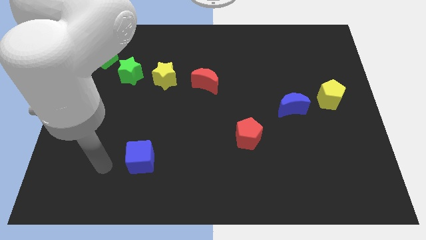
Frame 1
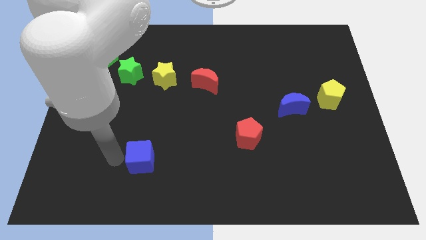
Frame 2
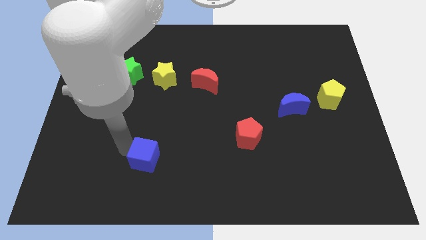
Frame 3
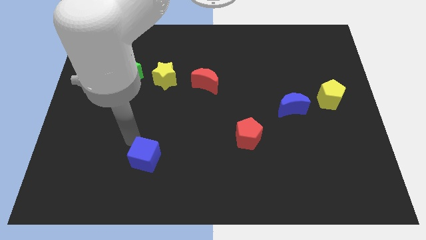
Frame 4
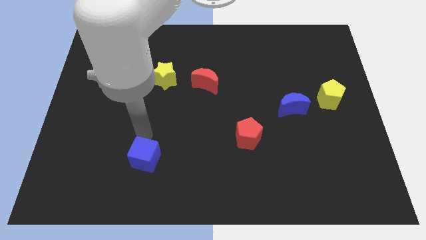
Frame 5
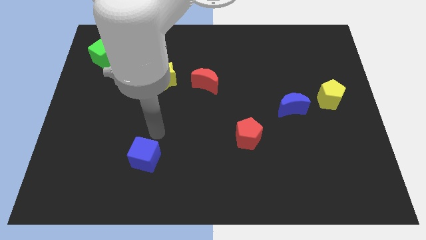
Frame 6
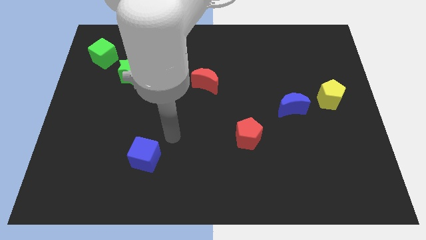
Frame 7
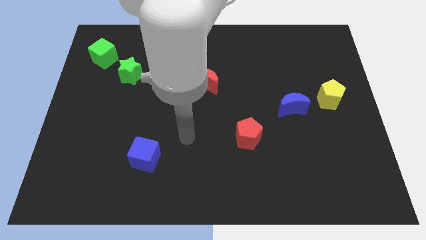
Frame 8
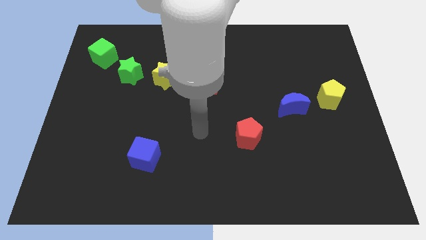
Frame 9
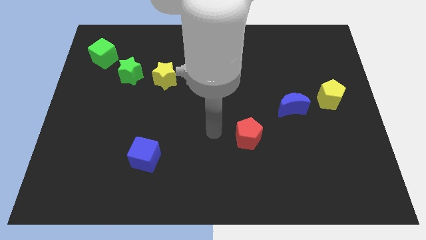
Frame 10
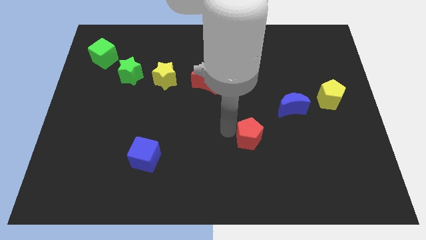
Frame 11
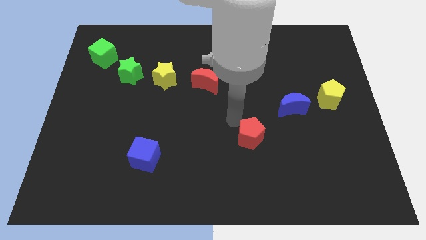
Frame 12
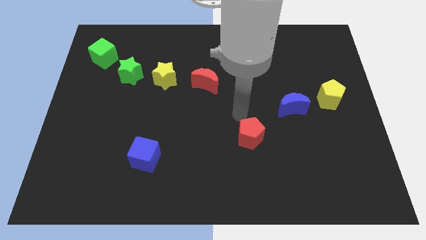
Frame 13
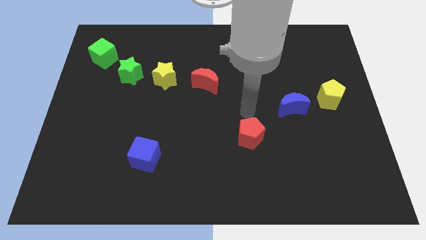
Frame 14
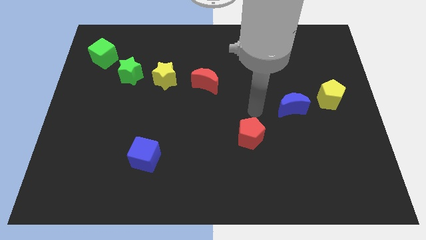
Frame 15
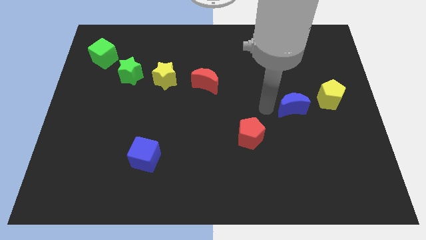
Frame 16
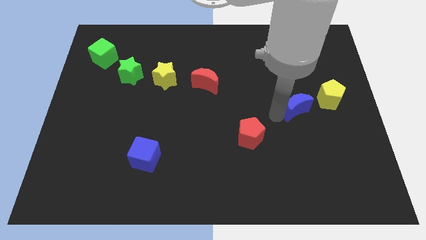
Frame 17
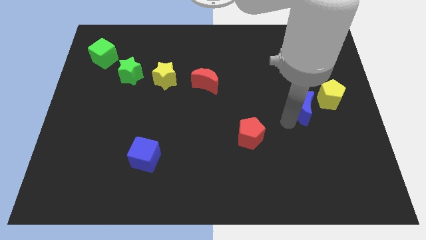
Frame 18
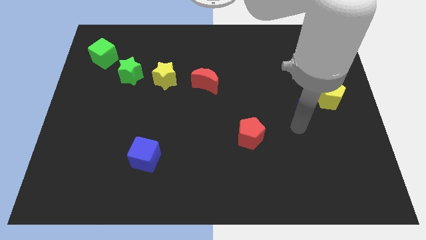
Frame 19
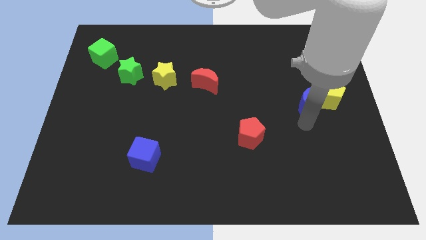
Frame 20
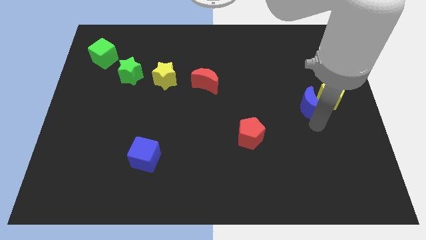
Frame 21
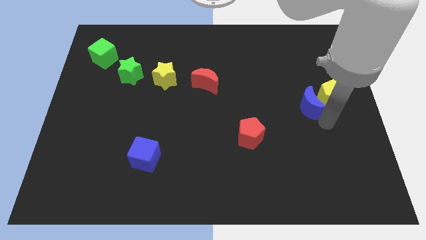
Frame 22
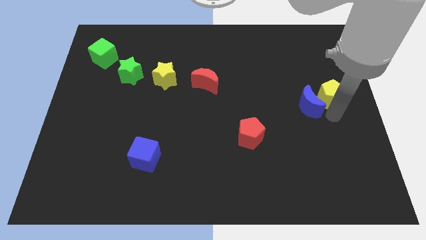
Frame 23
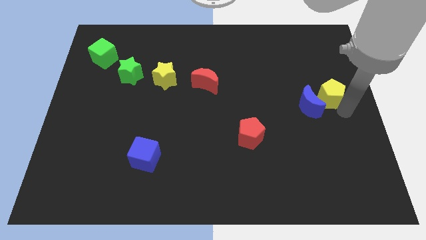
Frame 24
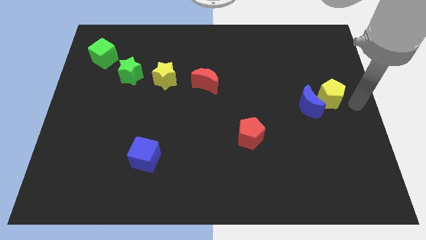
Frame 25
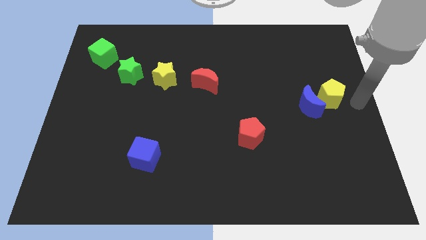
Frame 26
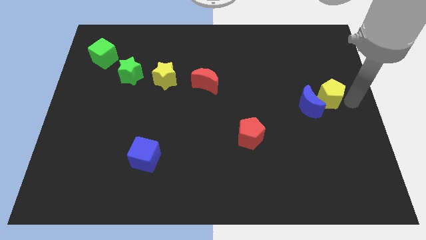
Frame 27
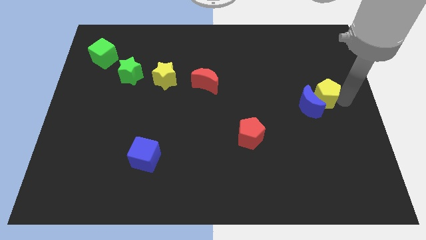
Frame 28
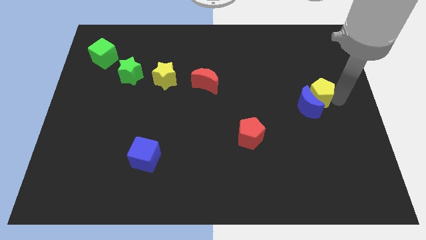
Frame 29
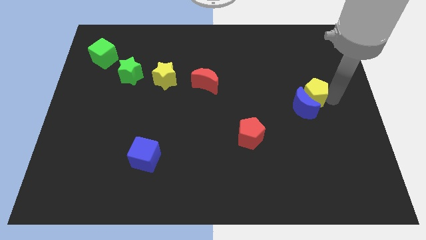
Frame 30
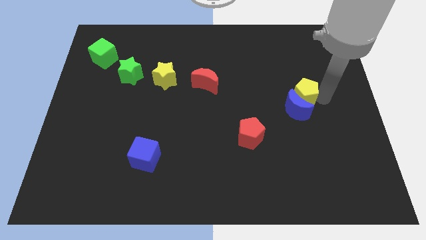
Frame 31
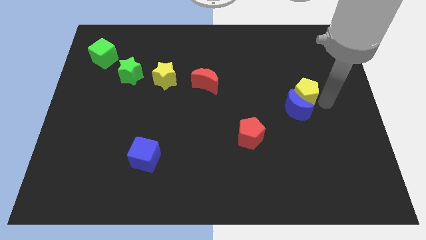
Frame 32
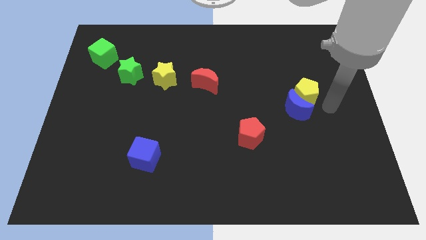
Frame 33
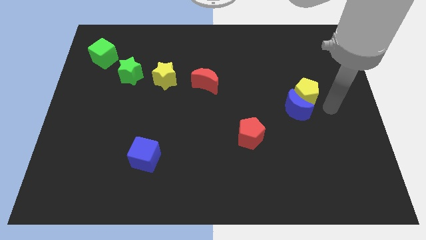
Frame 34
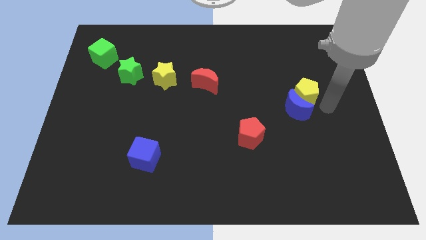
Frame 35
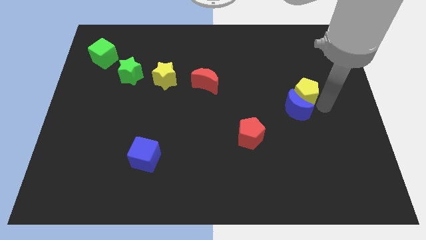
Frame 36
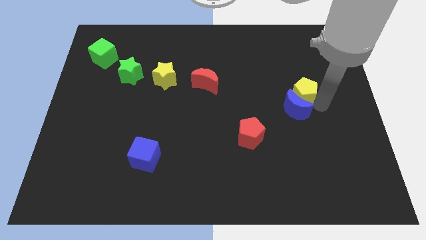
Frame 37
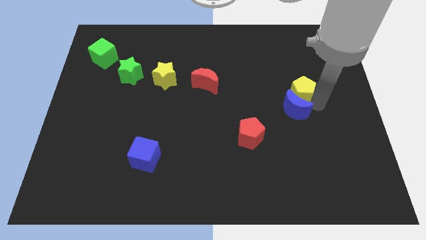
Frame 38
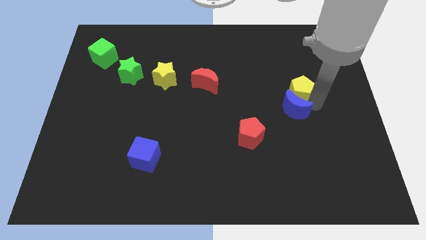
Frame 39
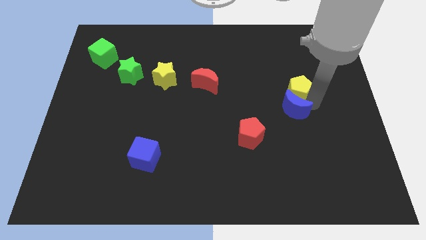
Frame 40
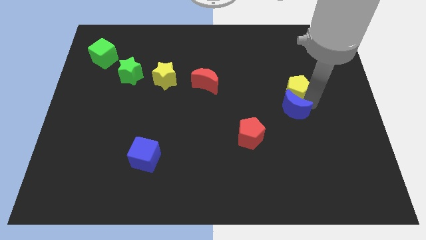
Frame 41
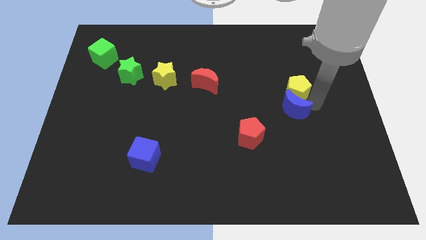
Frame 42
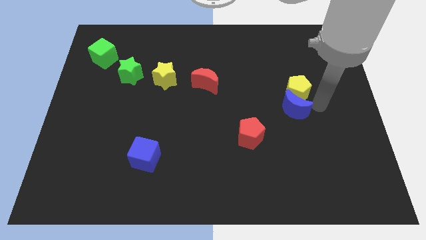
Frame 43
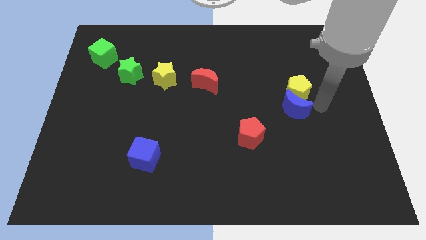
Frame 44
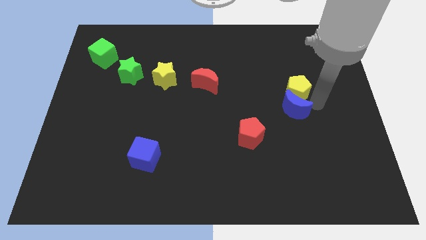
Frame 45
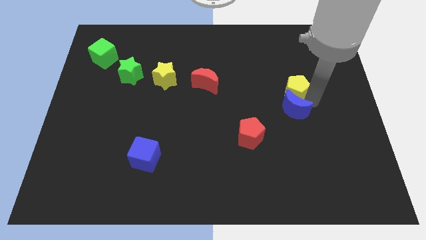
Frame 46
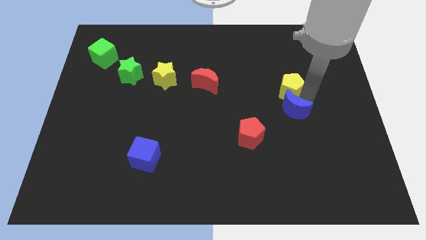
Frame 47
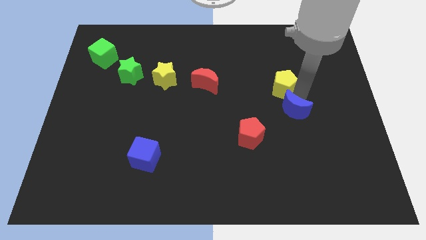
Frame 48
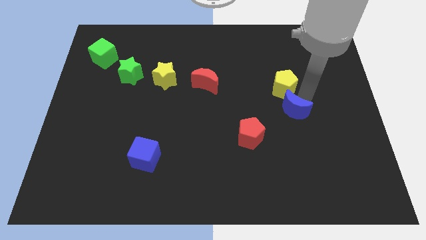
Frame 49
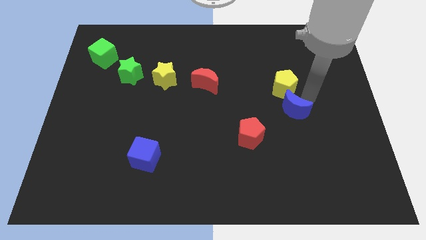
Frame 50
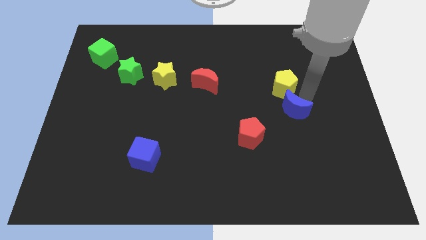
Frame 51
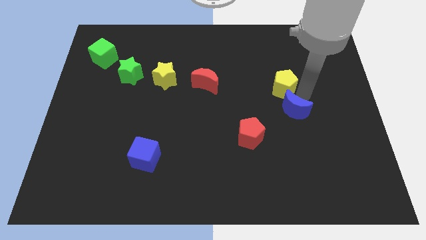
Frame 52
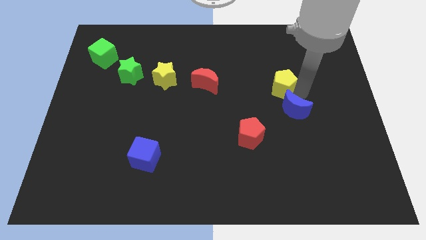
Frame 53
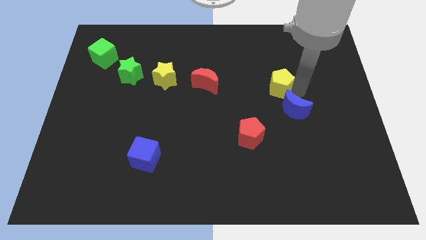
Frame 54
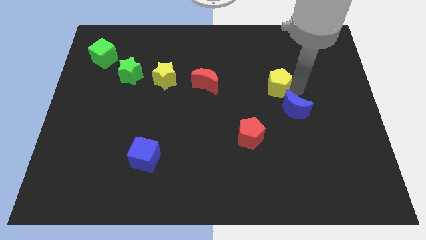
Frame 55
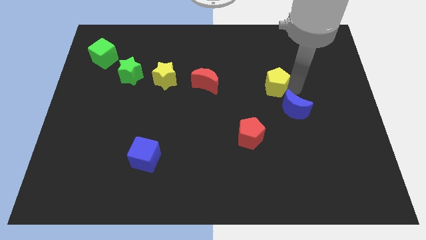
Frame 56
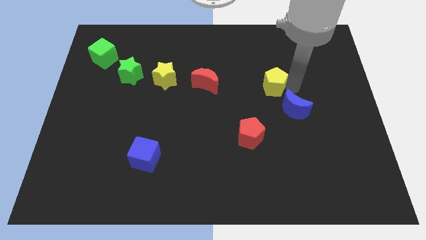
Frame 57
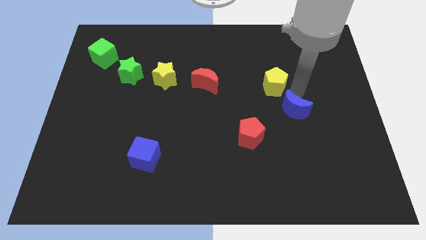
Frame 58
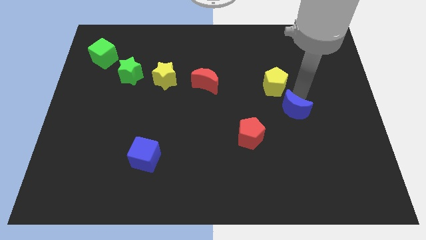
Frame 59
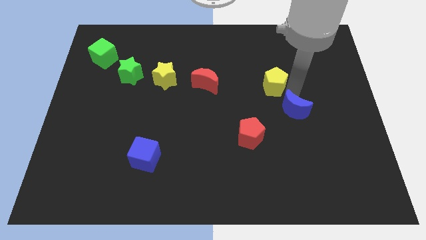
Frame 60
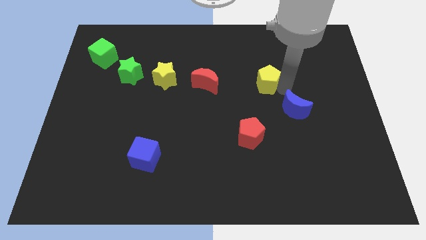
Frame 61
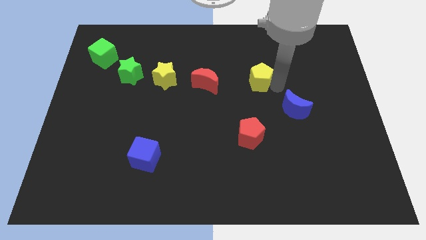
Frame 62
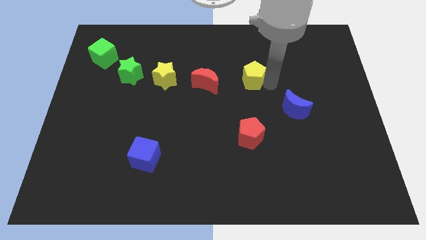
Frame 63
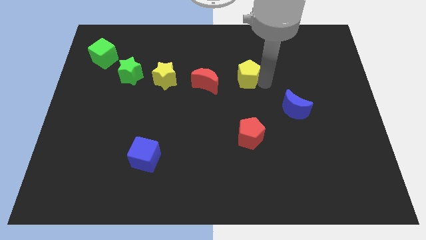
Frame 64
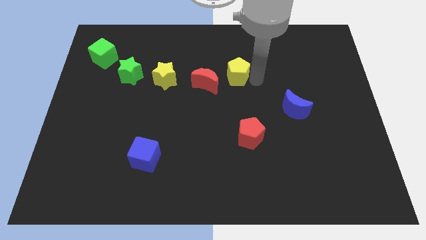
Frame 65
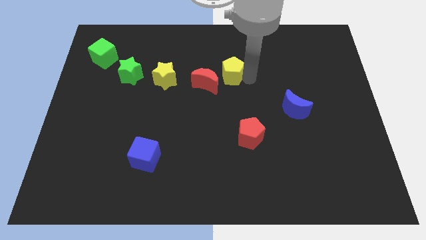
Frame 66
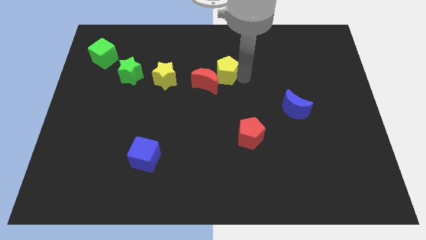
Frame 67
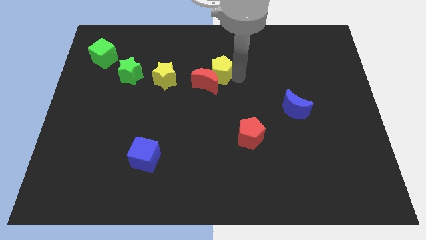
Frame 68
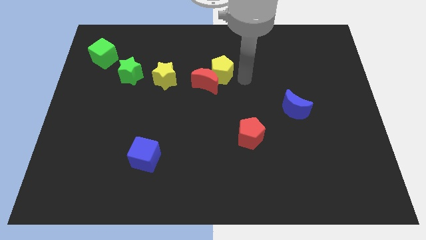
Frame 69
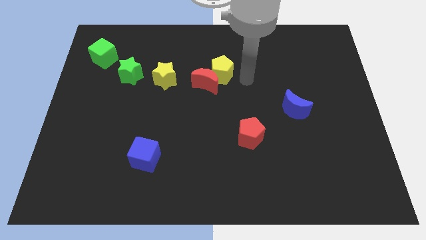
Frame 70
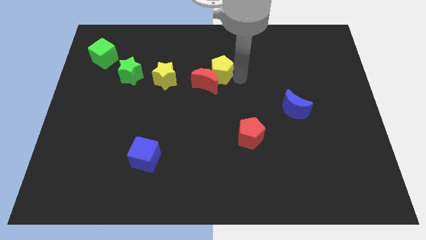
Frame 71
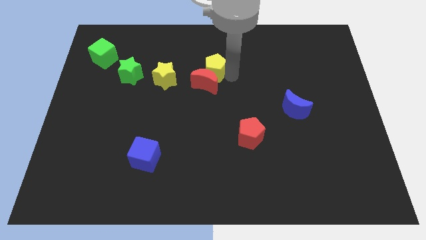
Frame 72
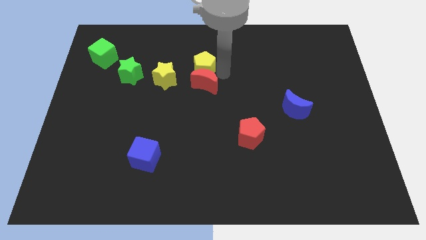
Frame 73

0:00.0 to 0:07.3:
slide the yellow pentagon diagonally up and to the right of the yellow star
